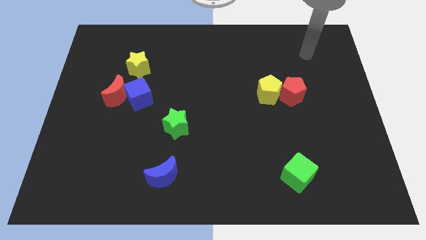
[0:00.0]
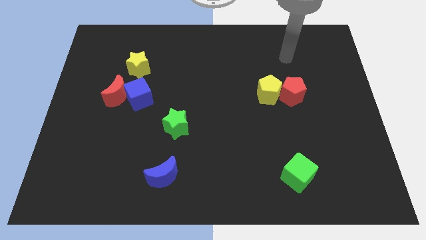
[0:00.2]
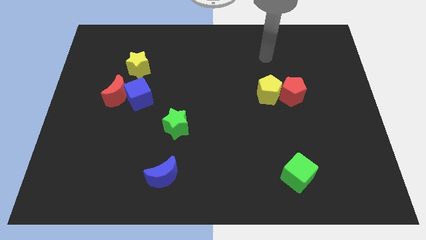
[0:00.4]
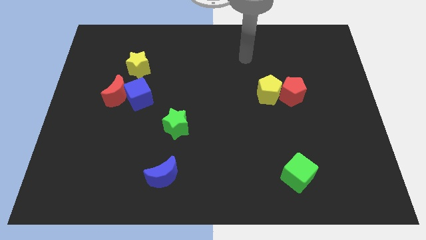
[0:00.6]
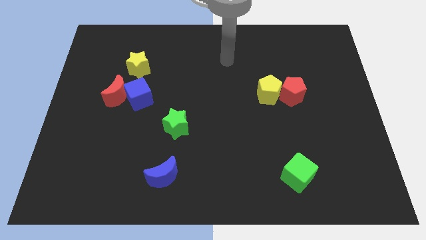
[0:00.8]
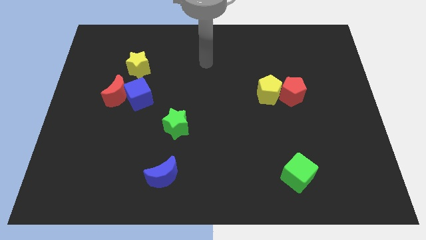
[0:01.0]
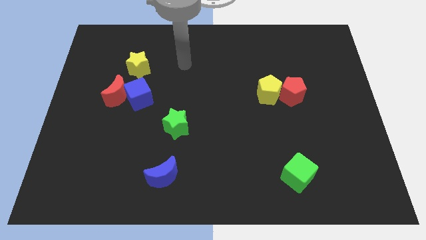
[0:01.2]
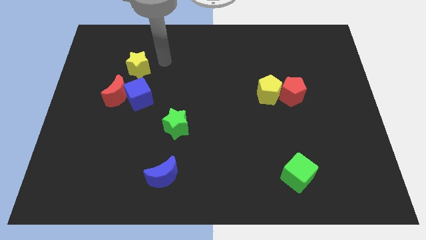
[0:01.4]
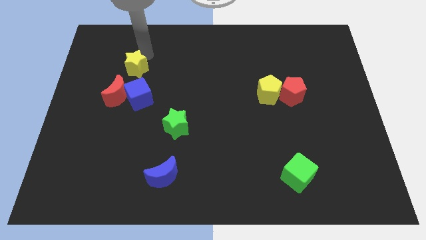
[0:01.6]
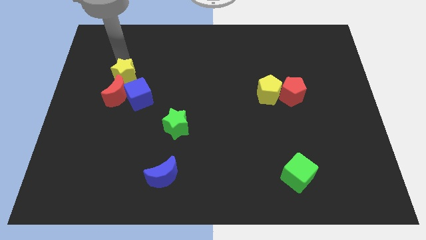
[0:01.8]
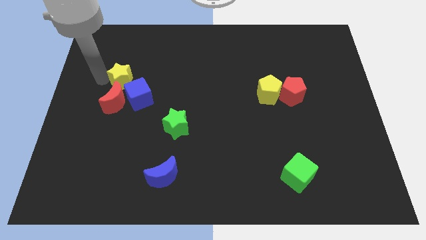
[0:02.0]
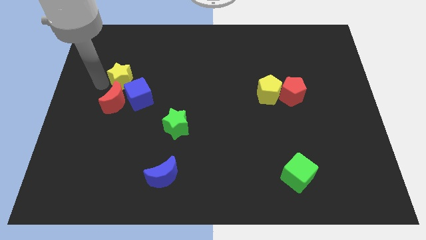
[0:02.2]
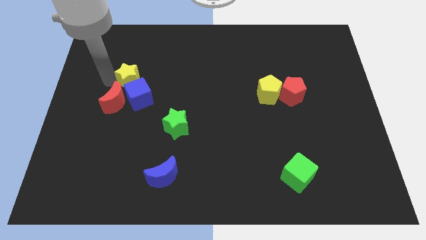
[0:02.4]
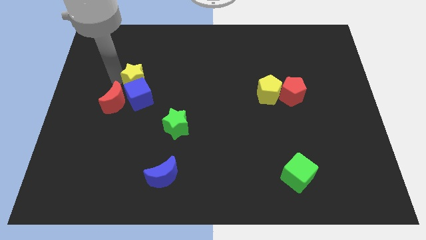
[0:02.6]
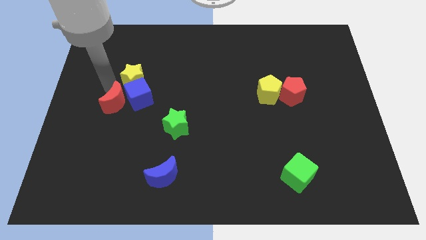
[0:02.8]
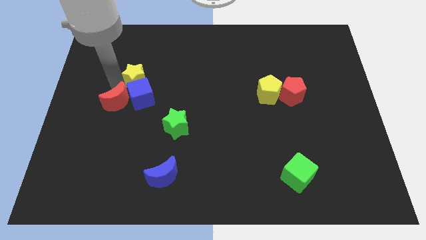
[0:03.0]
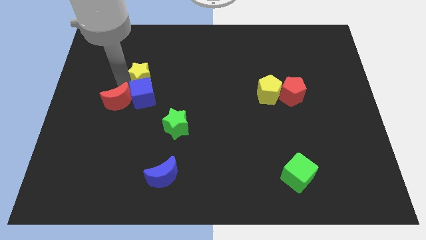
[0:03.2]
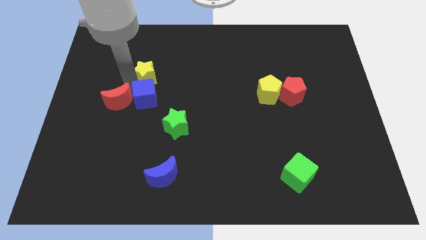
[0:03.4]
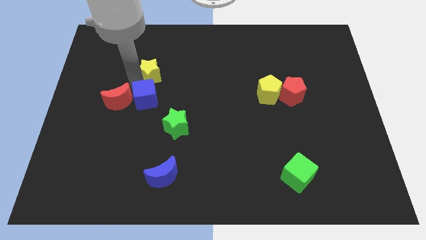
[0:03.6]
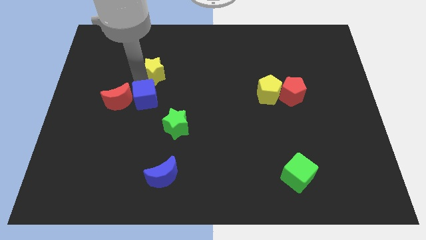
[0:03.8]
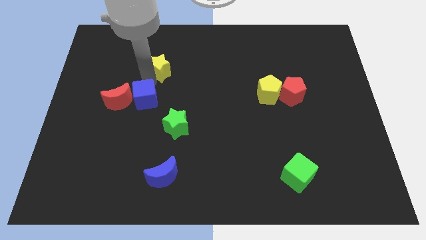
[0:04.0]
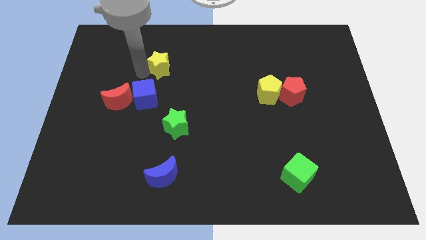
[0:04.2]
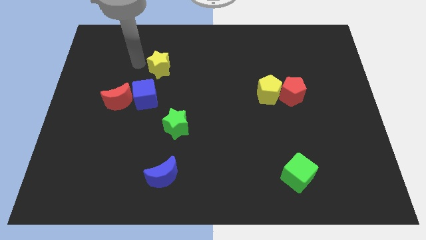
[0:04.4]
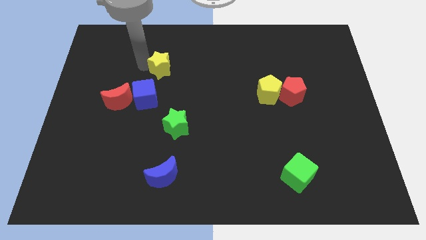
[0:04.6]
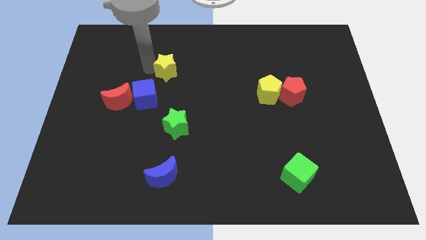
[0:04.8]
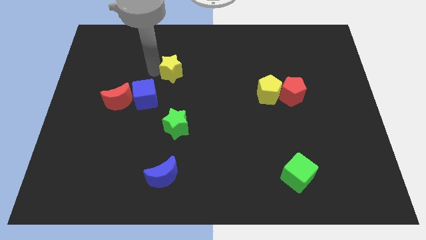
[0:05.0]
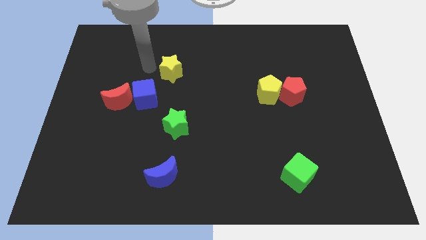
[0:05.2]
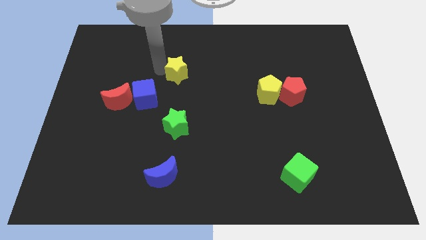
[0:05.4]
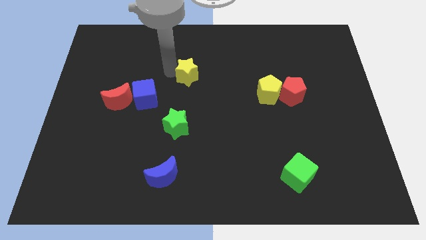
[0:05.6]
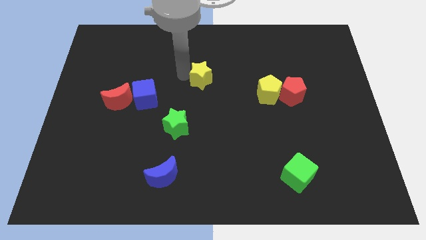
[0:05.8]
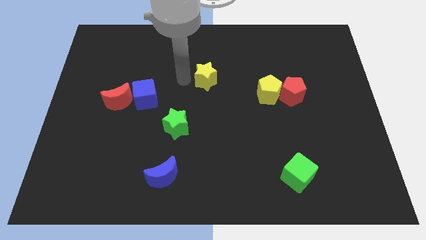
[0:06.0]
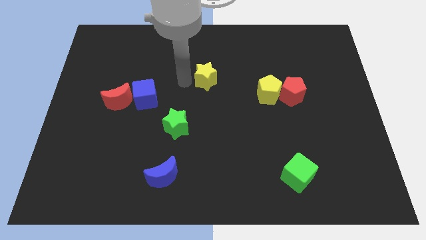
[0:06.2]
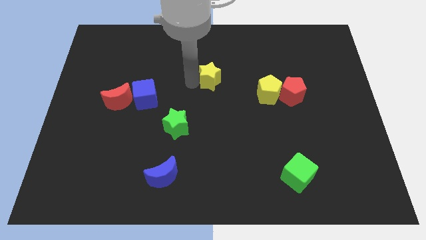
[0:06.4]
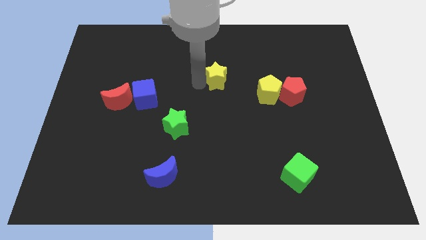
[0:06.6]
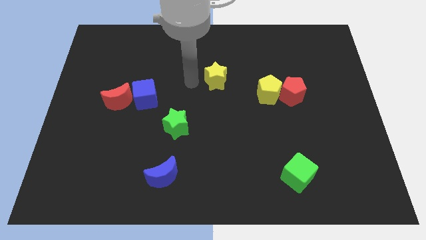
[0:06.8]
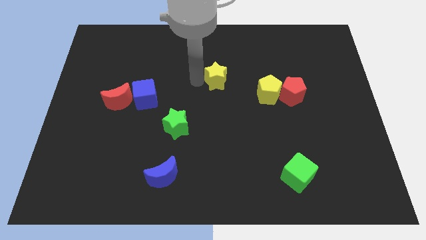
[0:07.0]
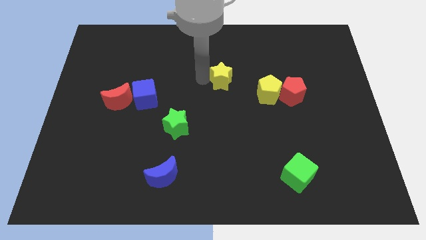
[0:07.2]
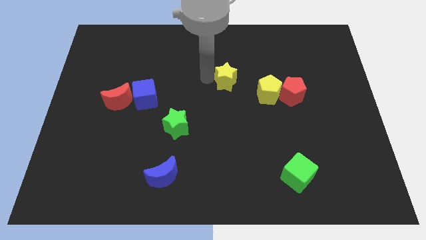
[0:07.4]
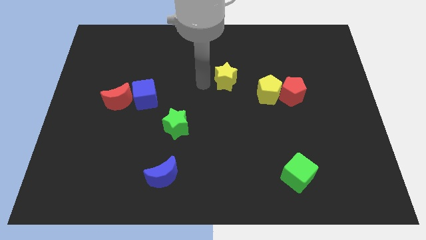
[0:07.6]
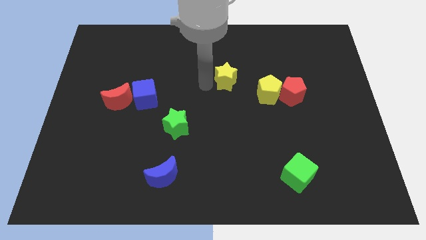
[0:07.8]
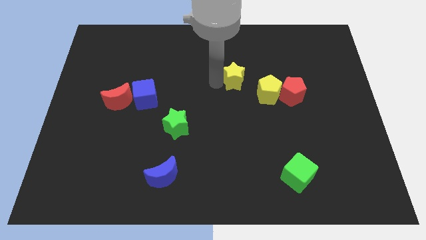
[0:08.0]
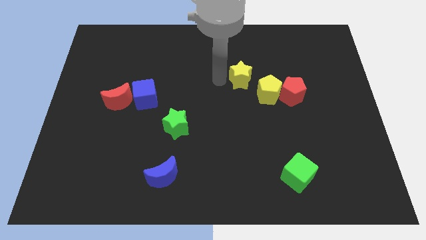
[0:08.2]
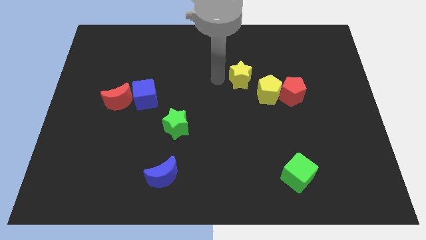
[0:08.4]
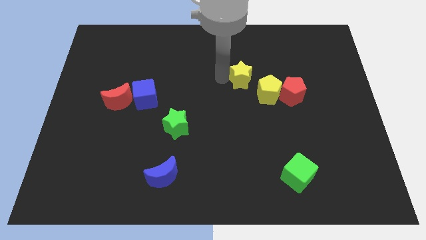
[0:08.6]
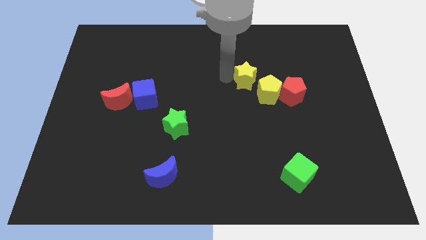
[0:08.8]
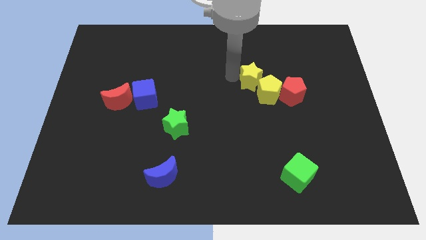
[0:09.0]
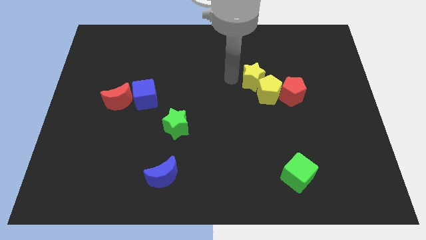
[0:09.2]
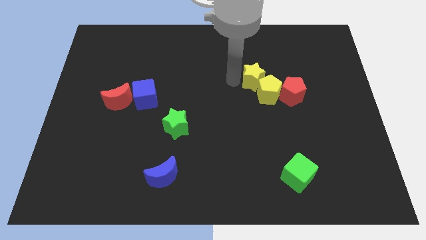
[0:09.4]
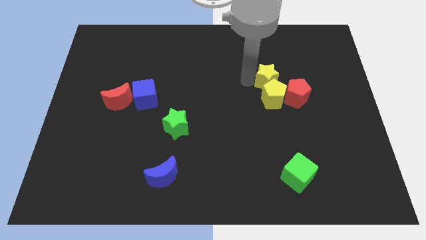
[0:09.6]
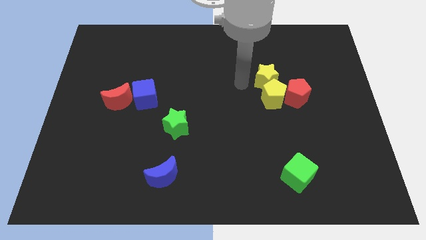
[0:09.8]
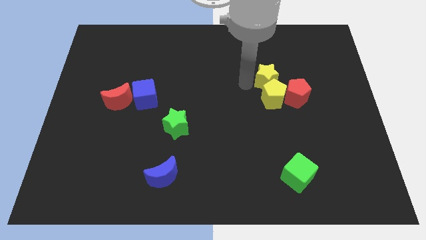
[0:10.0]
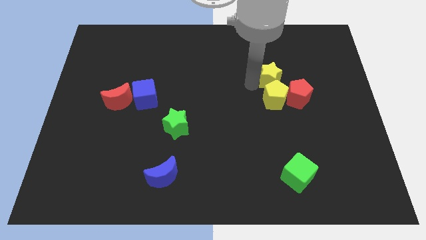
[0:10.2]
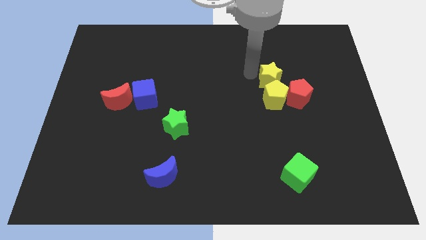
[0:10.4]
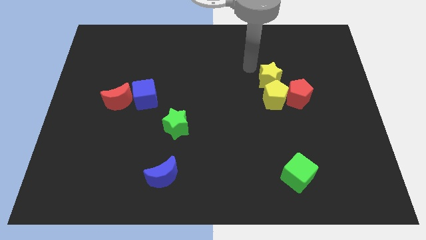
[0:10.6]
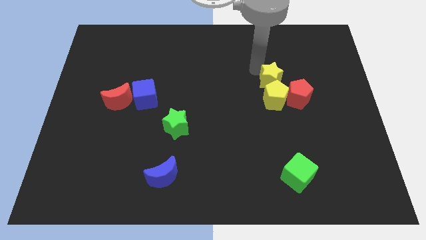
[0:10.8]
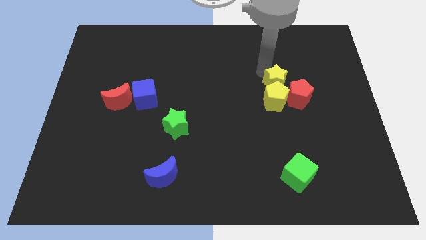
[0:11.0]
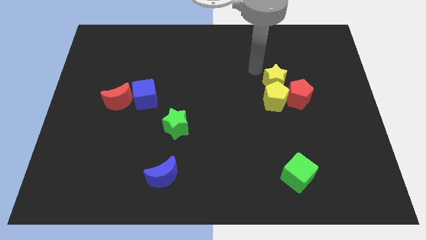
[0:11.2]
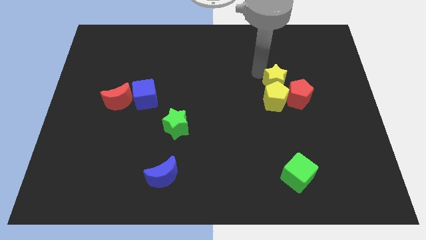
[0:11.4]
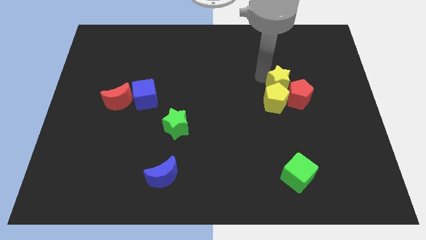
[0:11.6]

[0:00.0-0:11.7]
move the yellow star to the red pentagon

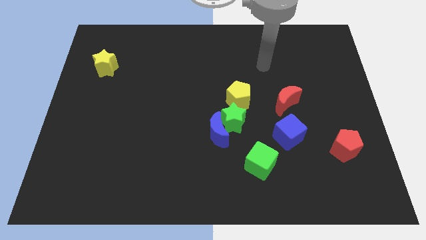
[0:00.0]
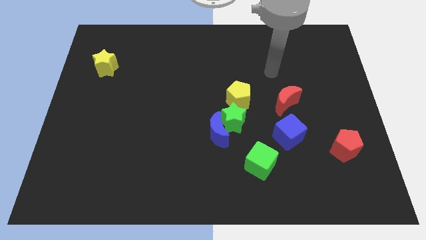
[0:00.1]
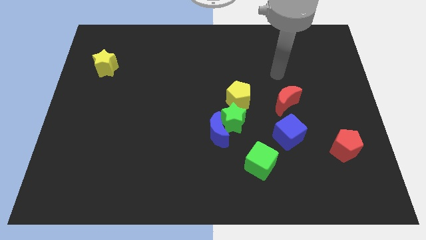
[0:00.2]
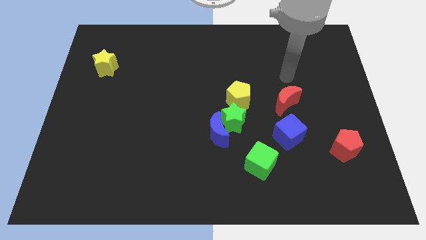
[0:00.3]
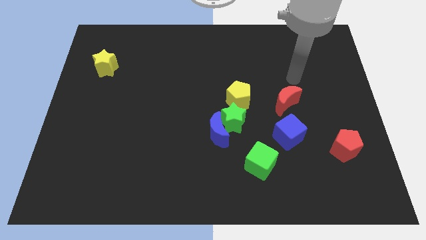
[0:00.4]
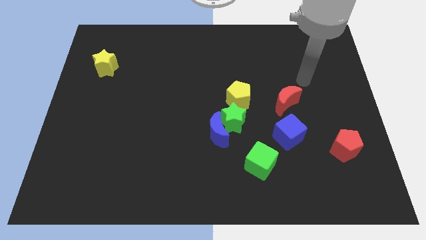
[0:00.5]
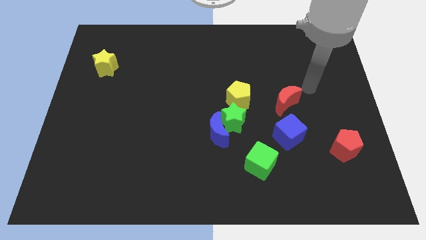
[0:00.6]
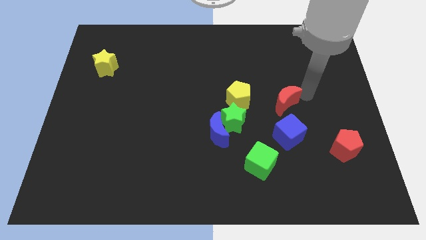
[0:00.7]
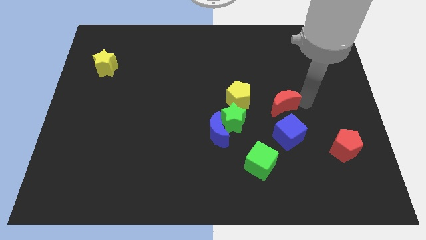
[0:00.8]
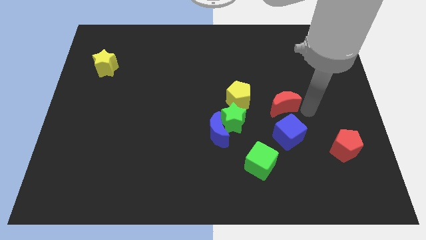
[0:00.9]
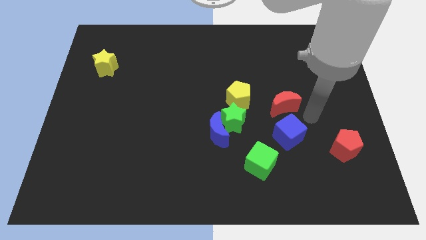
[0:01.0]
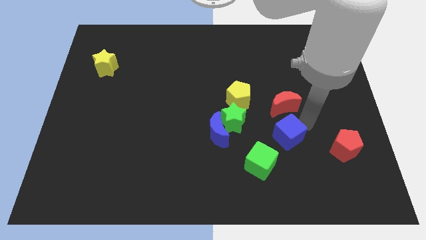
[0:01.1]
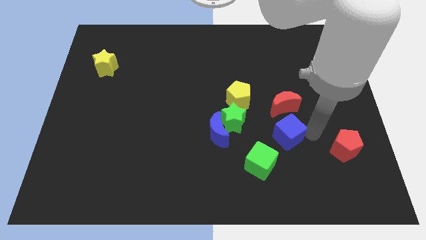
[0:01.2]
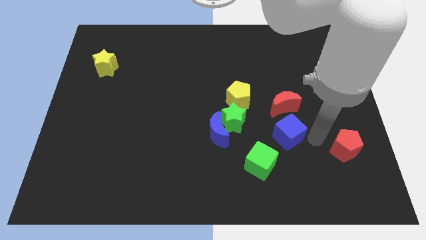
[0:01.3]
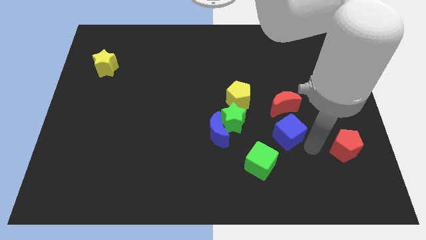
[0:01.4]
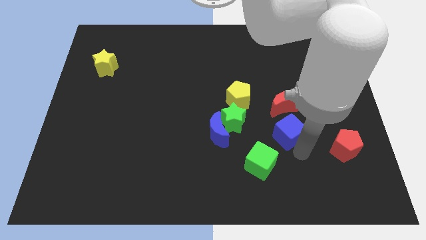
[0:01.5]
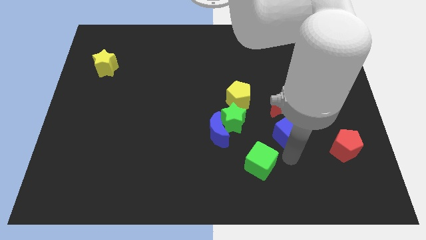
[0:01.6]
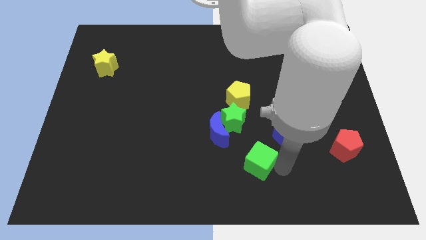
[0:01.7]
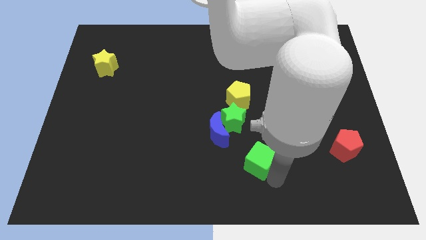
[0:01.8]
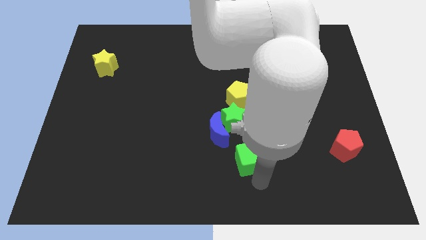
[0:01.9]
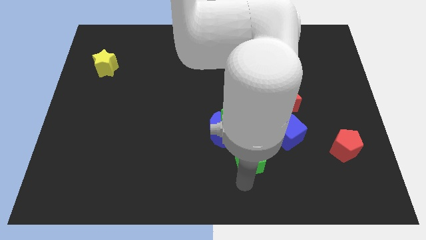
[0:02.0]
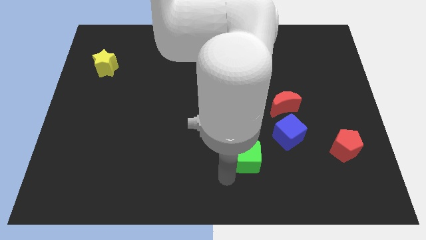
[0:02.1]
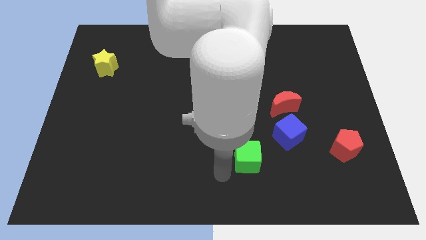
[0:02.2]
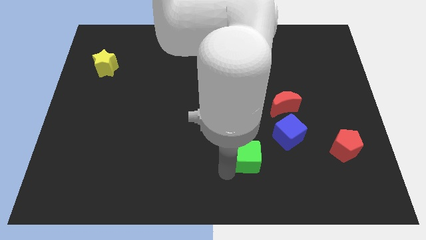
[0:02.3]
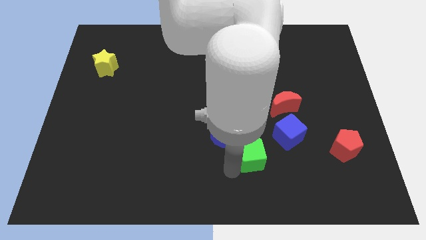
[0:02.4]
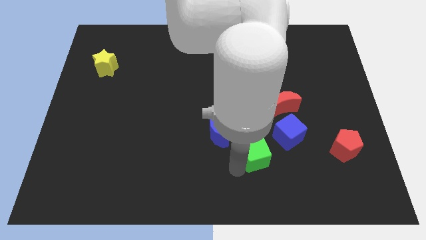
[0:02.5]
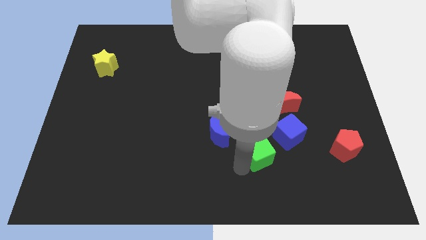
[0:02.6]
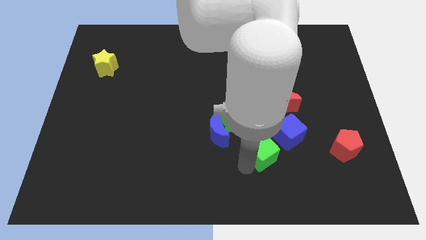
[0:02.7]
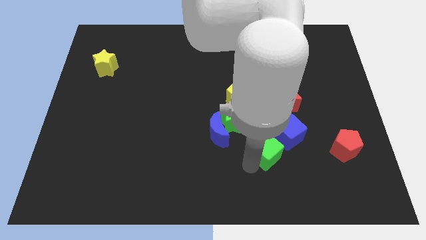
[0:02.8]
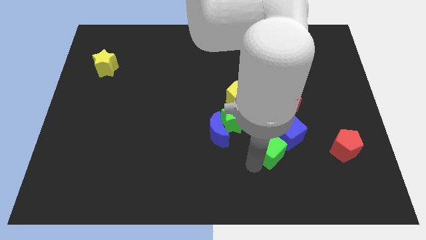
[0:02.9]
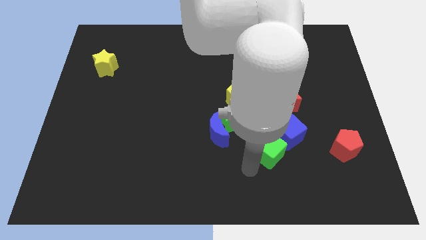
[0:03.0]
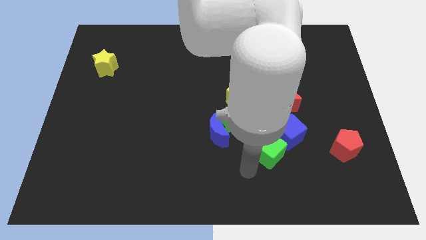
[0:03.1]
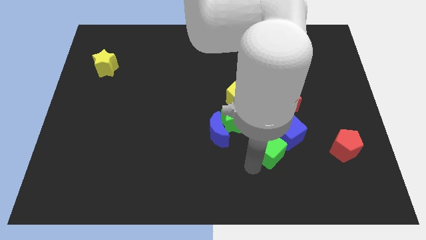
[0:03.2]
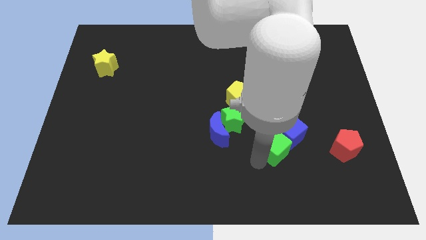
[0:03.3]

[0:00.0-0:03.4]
push the green cube towards the blue cube
